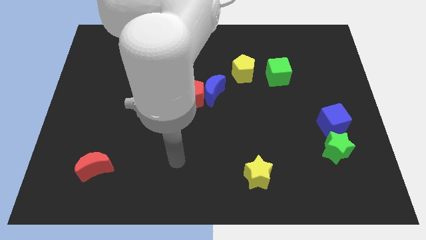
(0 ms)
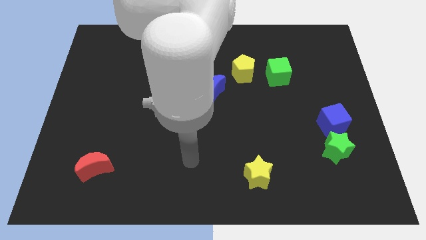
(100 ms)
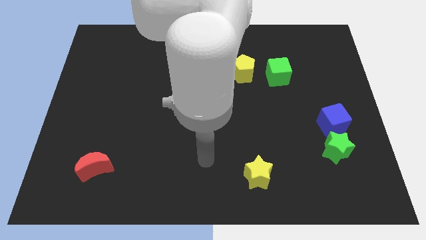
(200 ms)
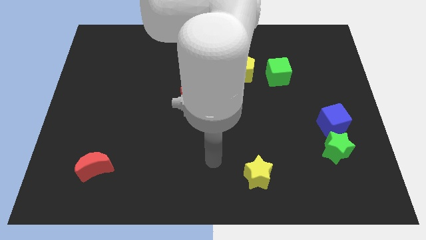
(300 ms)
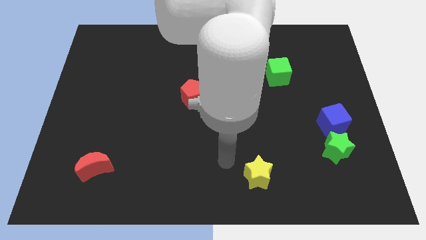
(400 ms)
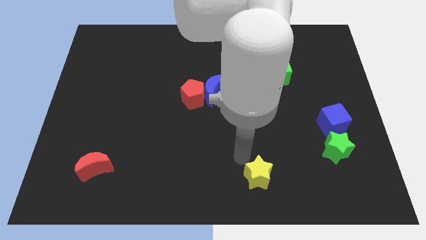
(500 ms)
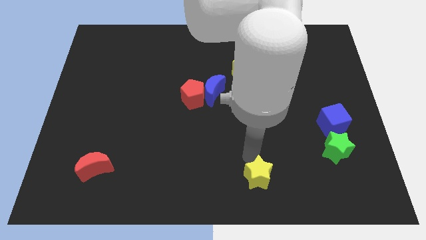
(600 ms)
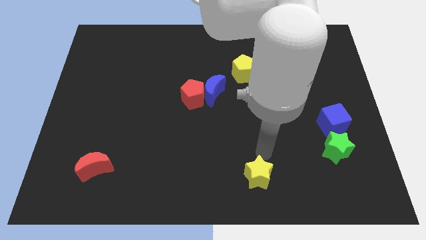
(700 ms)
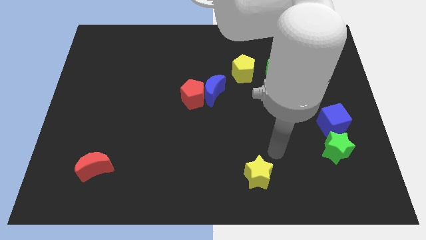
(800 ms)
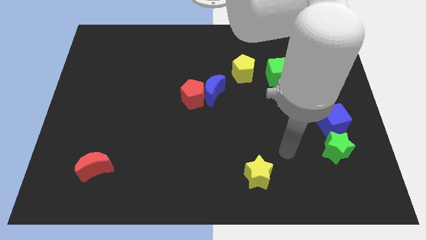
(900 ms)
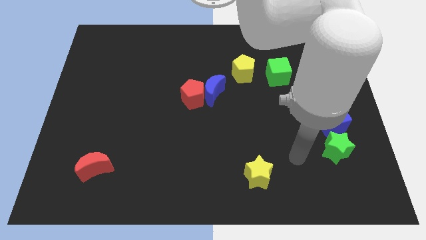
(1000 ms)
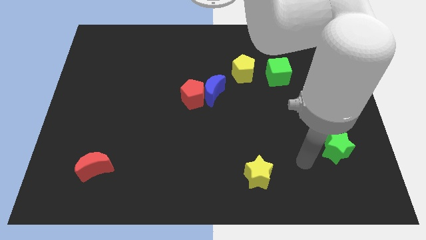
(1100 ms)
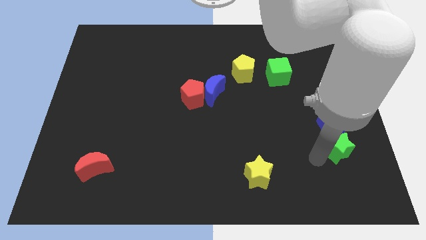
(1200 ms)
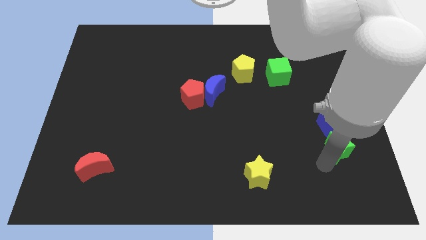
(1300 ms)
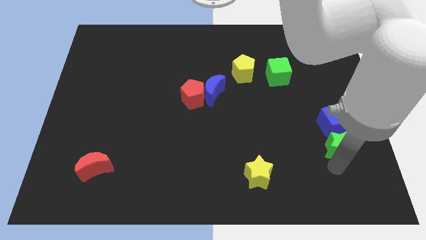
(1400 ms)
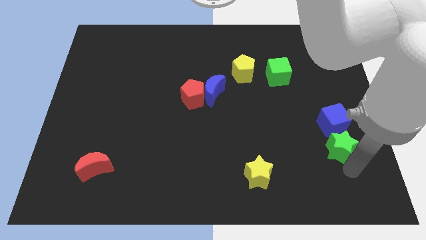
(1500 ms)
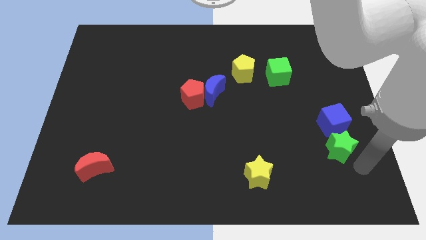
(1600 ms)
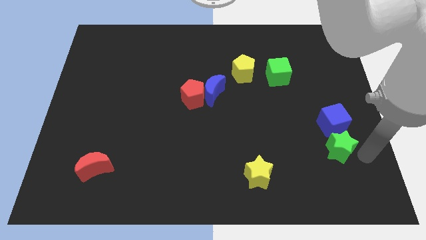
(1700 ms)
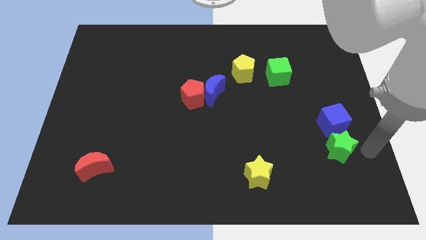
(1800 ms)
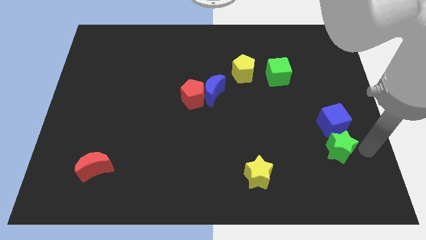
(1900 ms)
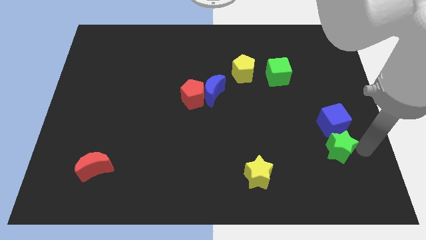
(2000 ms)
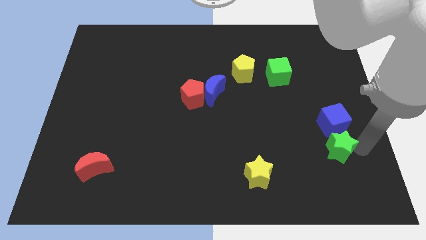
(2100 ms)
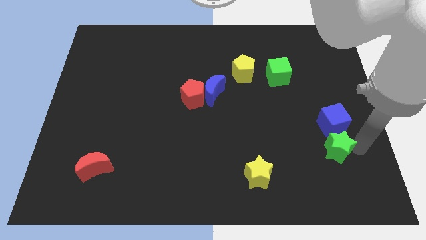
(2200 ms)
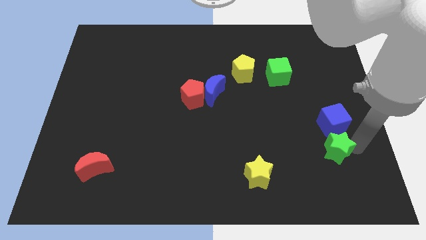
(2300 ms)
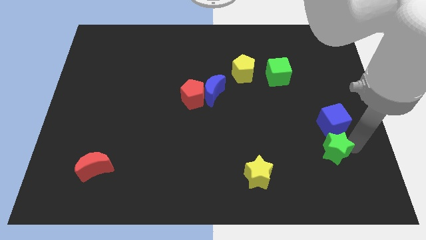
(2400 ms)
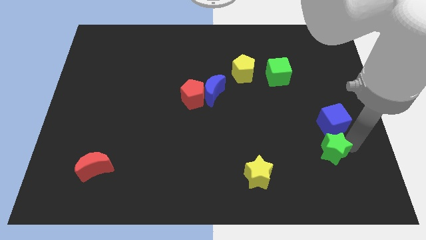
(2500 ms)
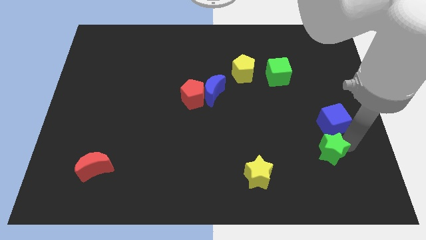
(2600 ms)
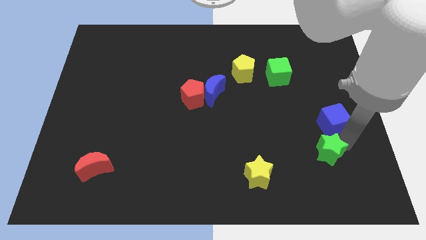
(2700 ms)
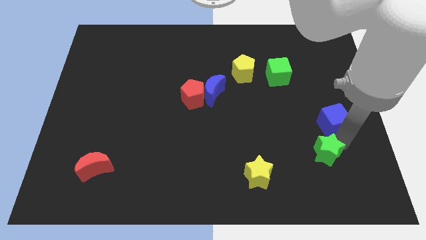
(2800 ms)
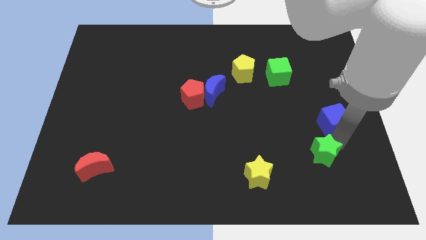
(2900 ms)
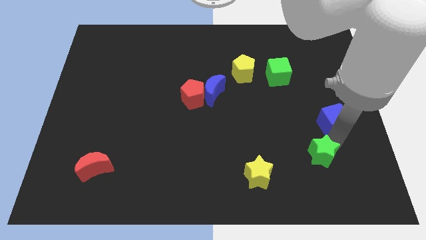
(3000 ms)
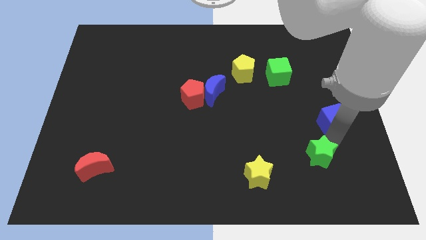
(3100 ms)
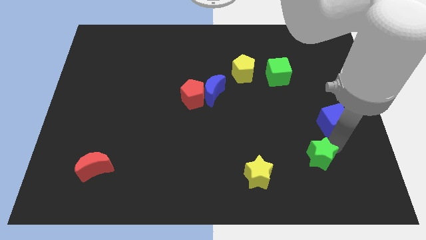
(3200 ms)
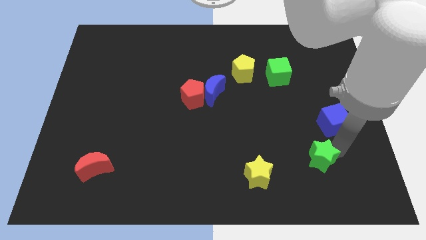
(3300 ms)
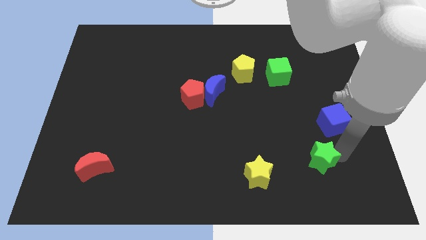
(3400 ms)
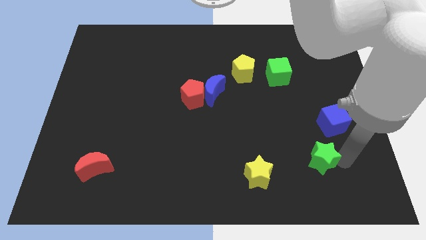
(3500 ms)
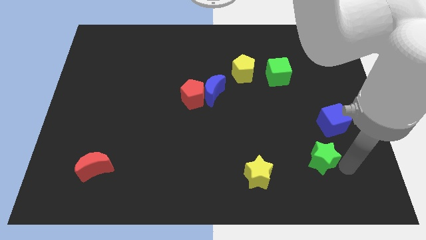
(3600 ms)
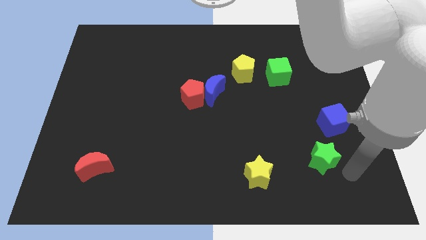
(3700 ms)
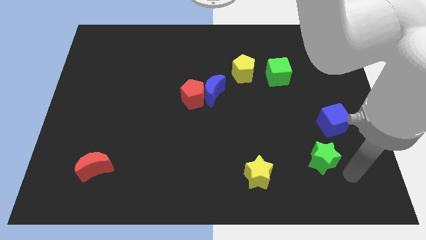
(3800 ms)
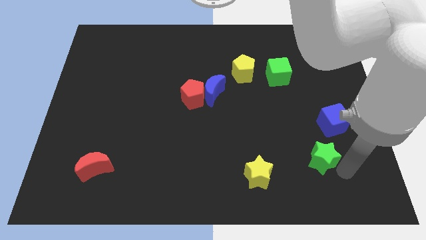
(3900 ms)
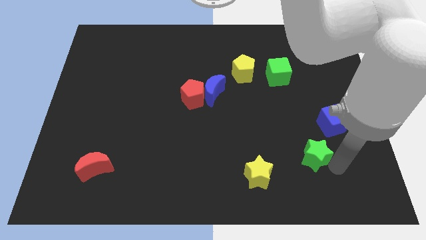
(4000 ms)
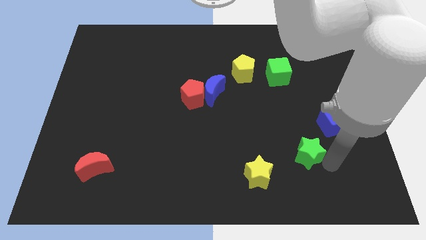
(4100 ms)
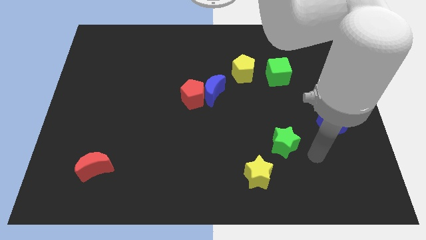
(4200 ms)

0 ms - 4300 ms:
slide the green star a bit left

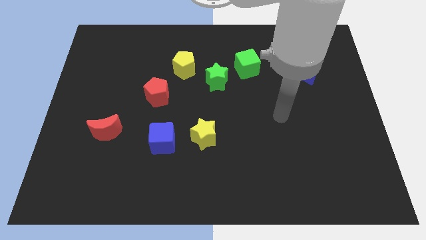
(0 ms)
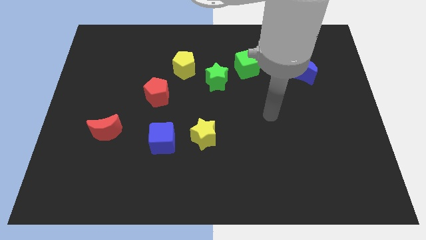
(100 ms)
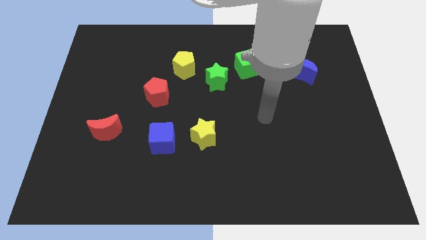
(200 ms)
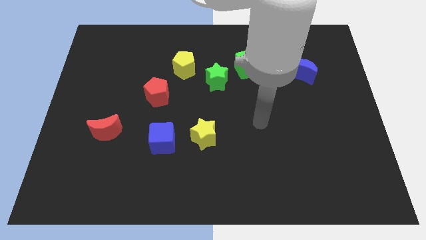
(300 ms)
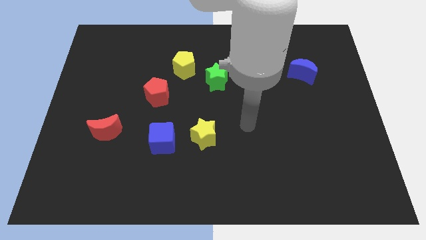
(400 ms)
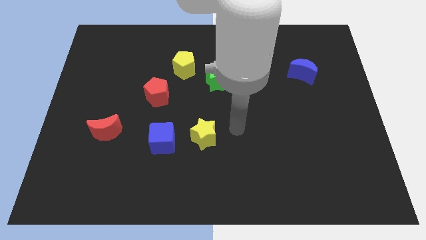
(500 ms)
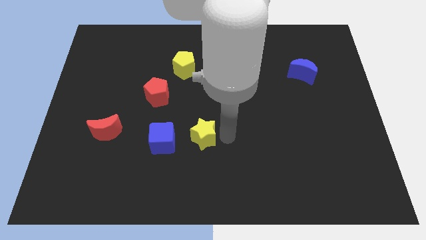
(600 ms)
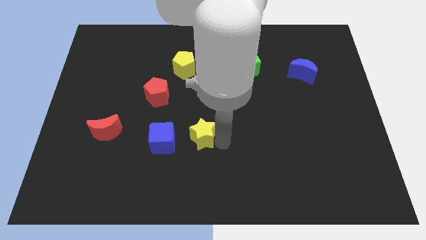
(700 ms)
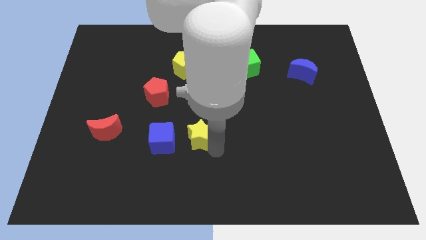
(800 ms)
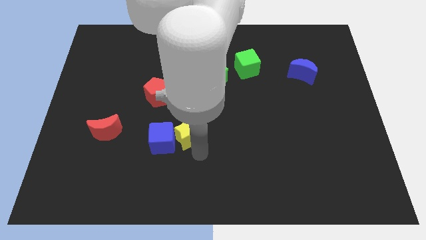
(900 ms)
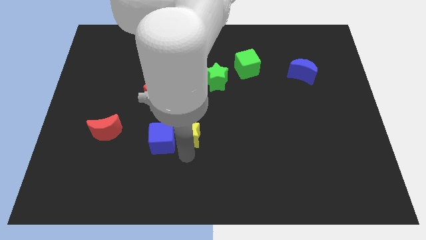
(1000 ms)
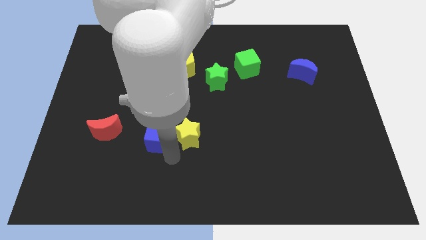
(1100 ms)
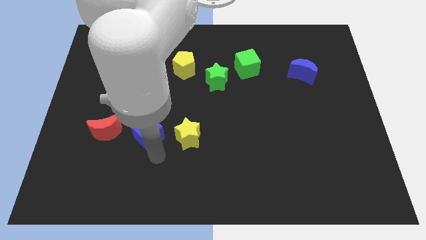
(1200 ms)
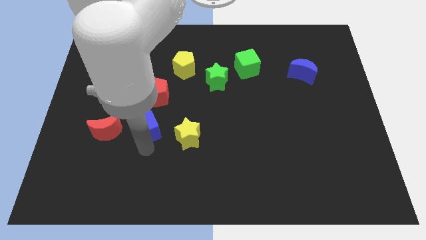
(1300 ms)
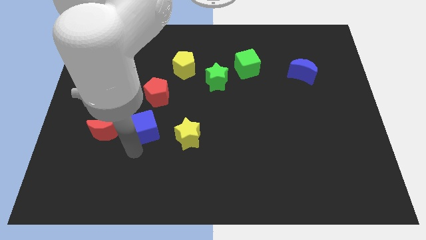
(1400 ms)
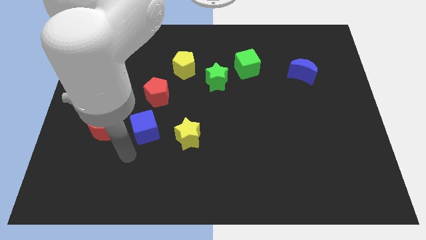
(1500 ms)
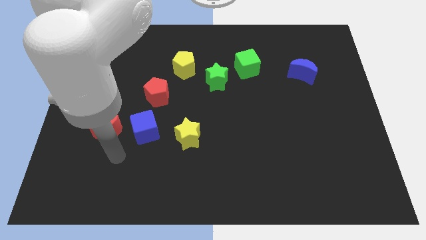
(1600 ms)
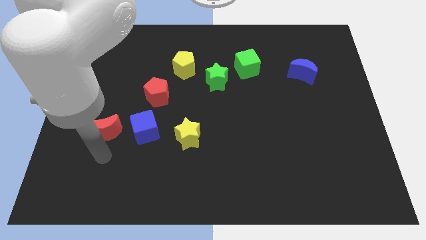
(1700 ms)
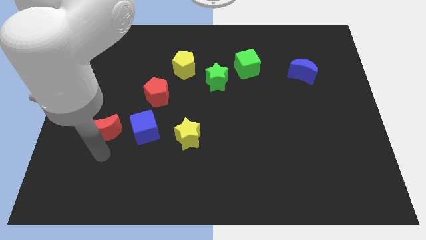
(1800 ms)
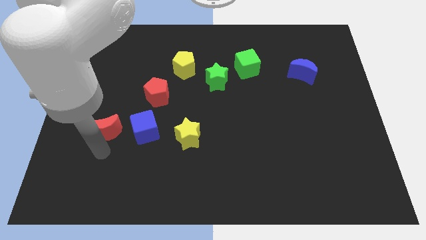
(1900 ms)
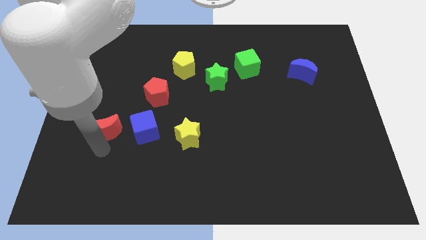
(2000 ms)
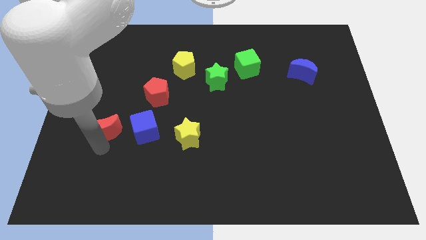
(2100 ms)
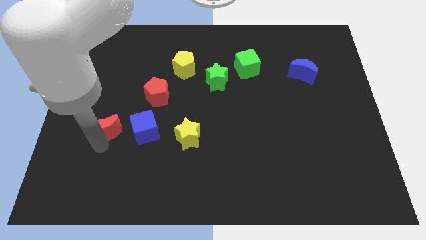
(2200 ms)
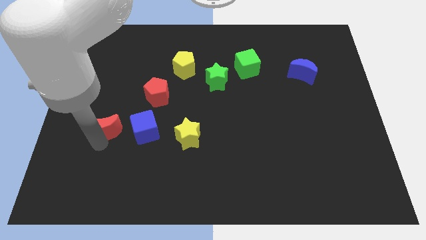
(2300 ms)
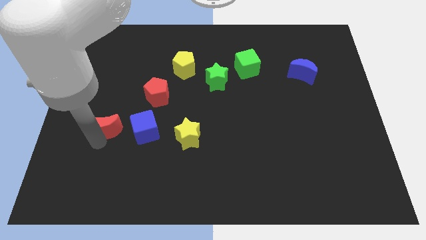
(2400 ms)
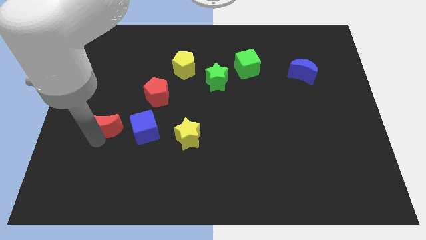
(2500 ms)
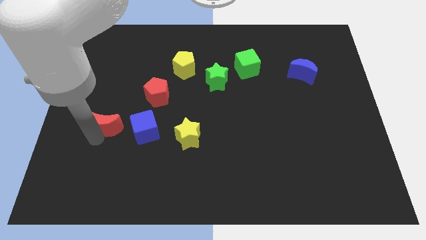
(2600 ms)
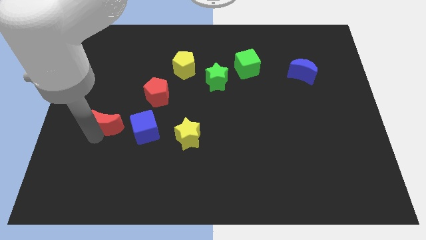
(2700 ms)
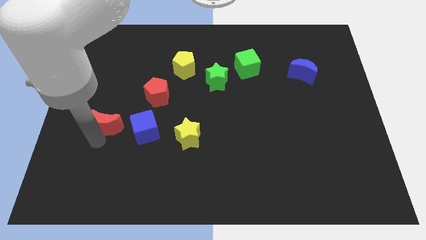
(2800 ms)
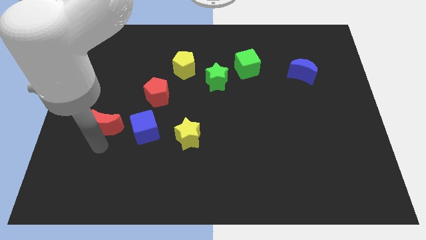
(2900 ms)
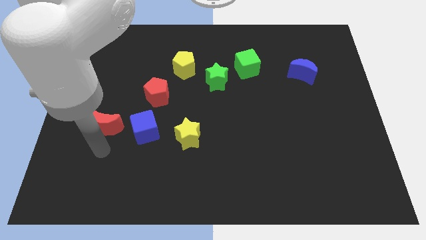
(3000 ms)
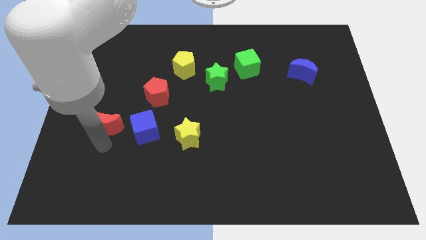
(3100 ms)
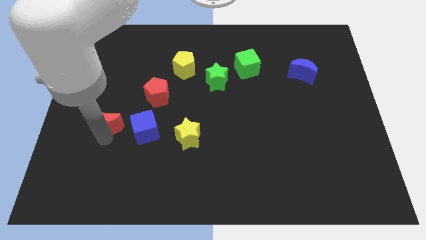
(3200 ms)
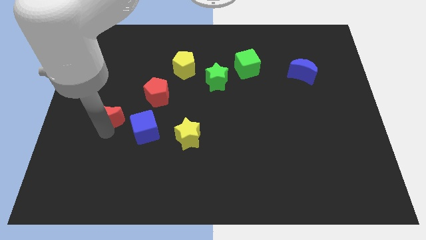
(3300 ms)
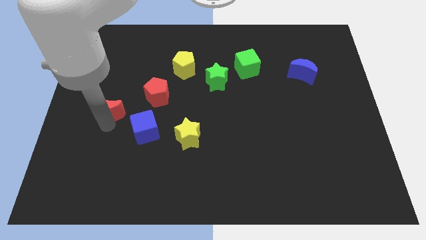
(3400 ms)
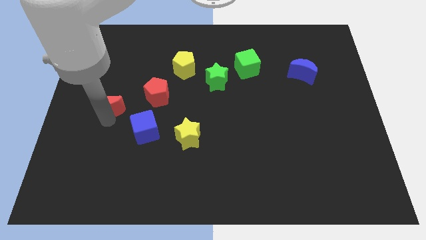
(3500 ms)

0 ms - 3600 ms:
push the red moon upwards a bit
